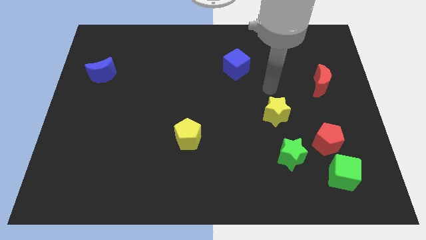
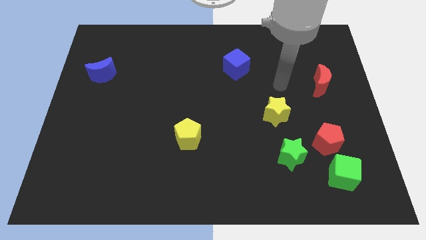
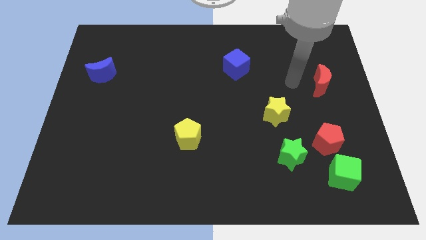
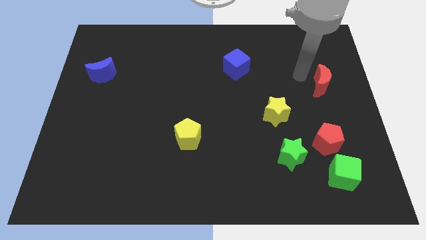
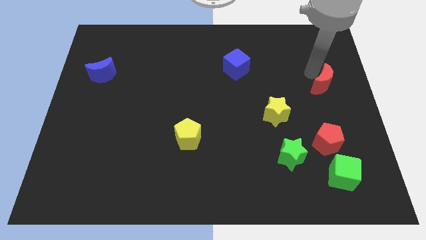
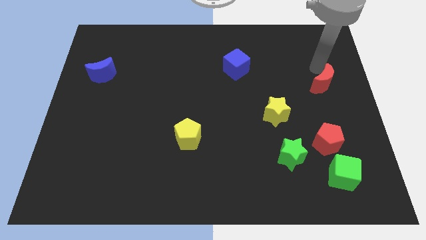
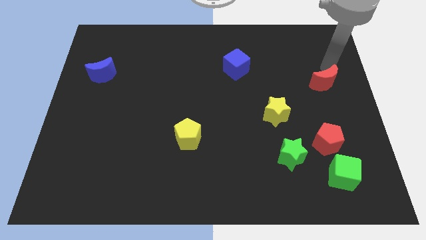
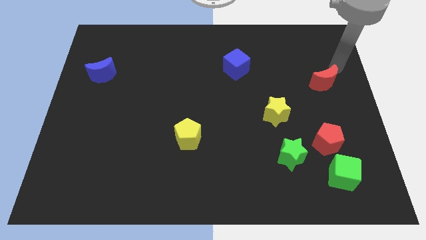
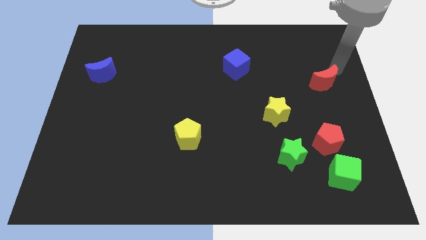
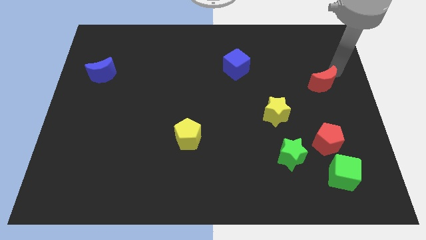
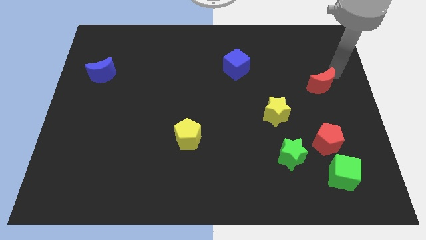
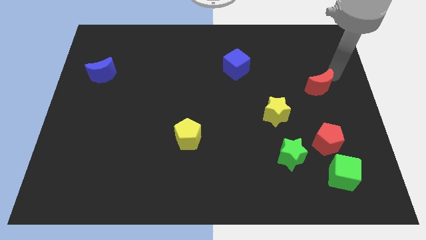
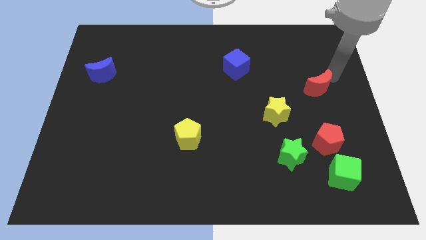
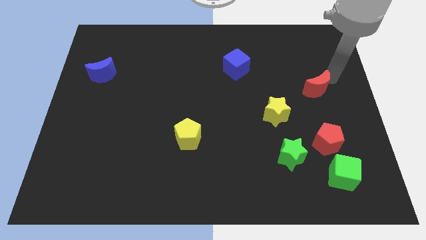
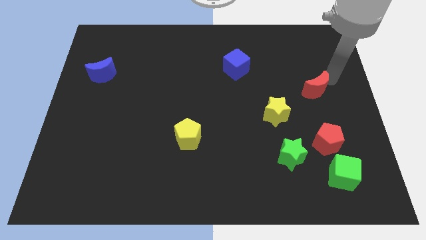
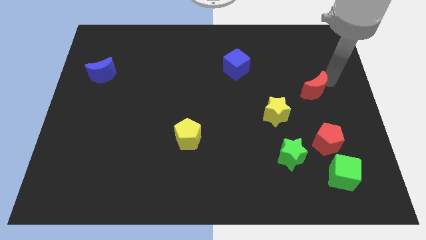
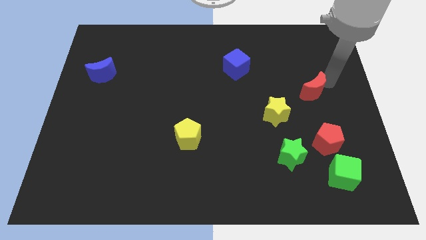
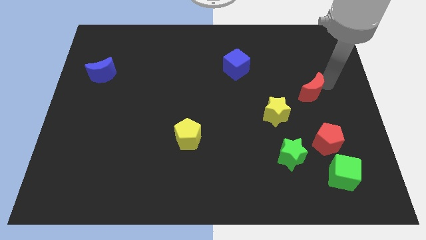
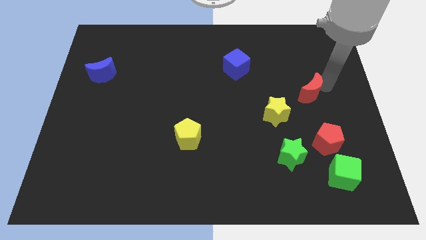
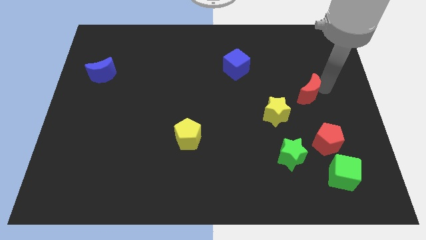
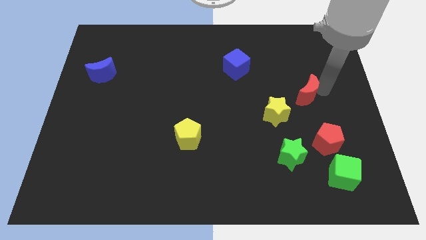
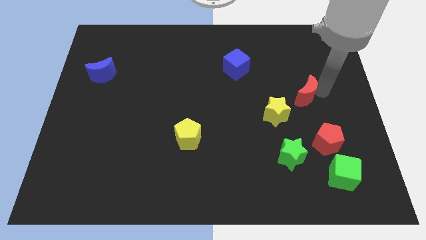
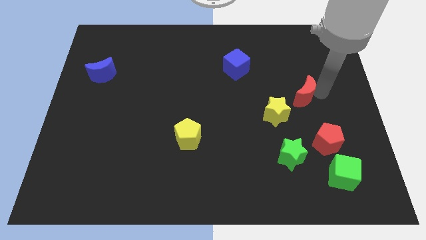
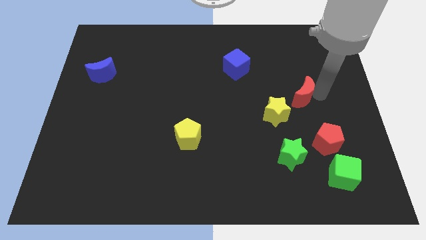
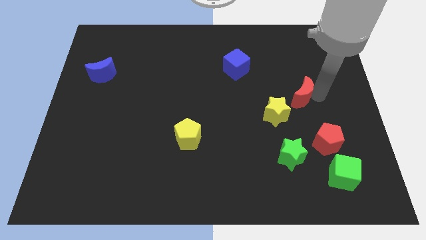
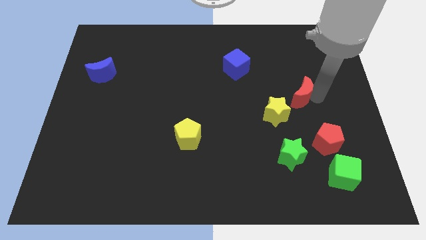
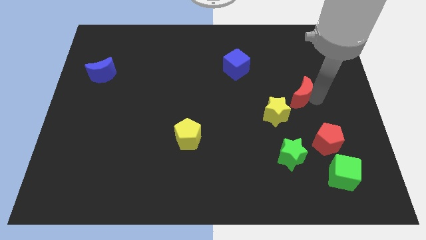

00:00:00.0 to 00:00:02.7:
slide the red moon diagonally downwards and left a little

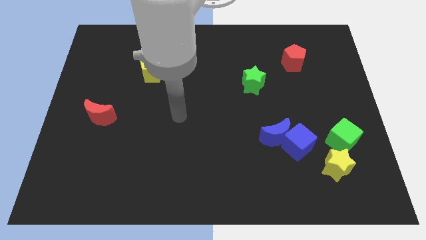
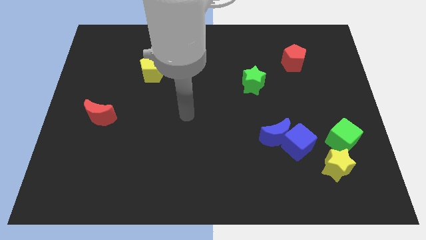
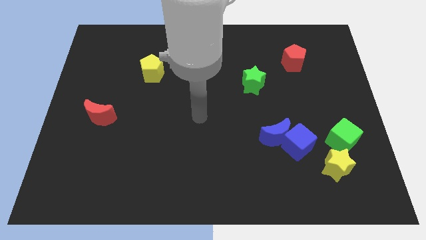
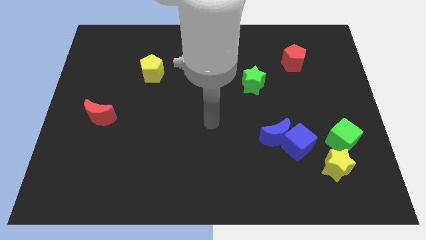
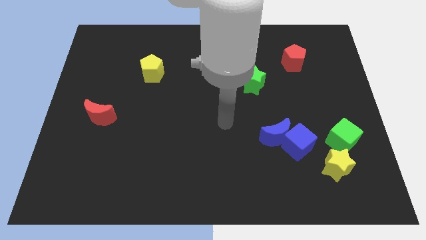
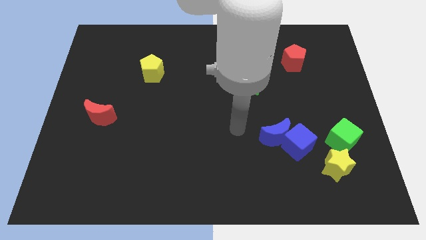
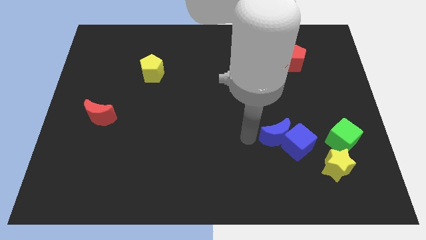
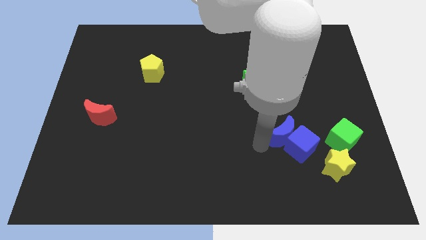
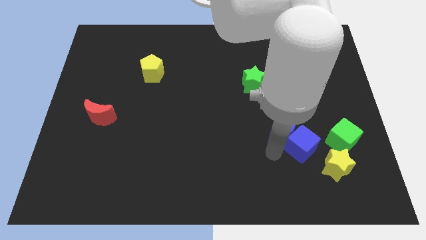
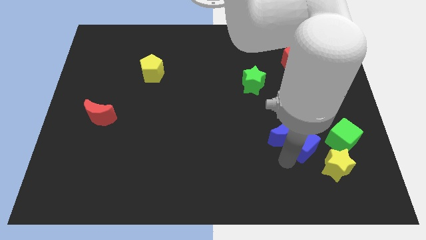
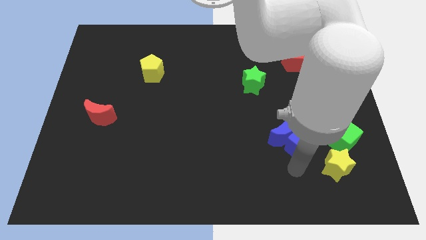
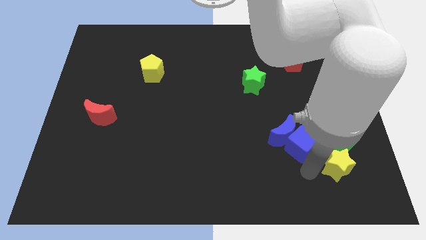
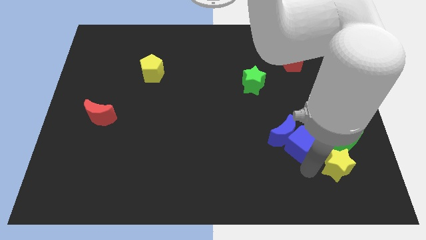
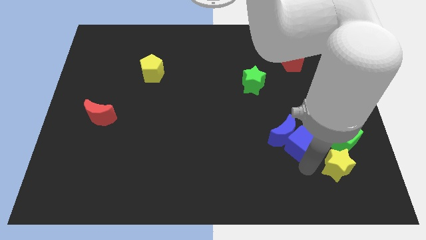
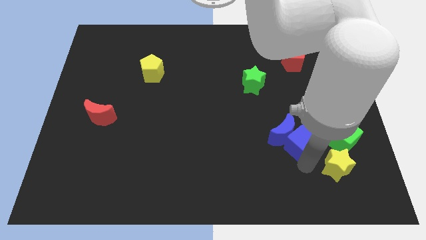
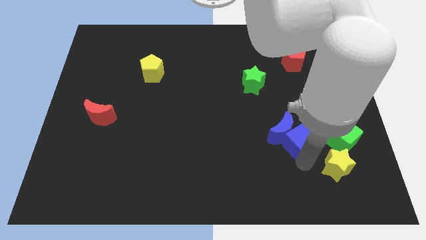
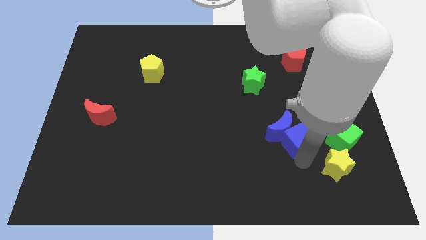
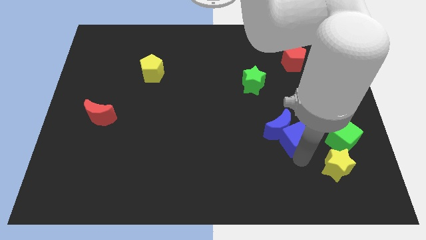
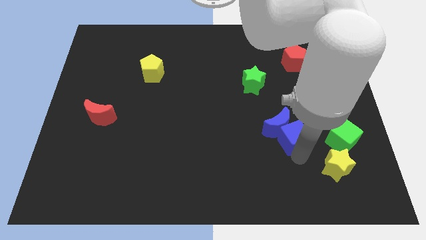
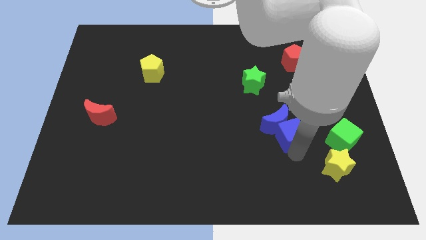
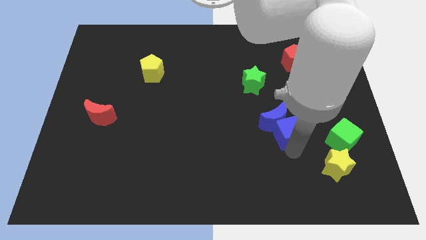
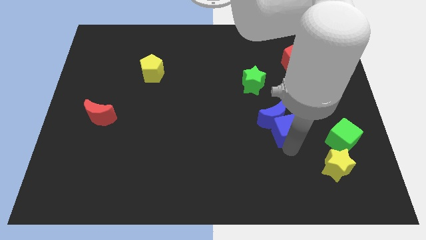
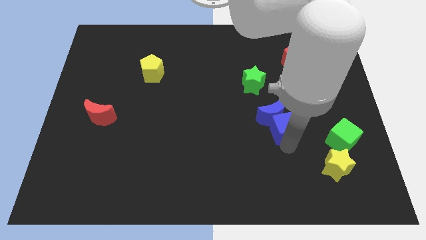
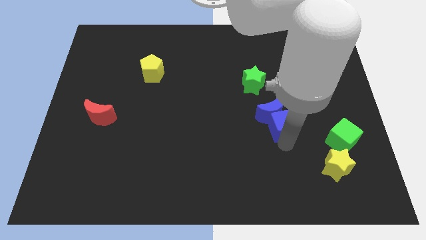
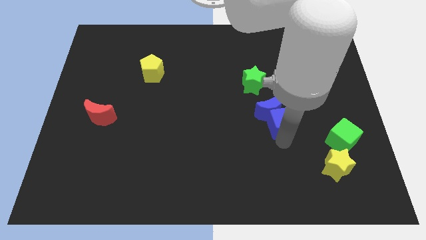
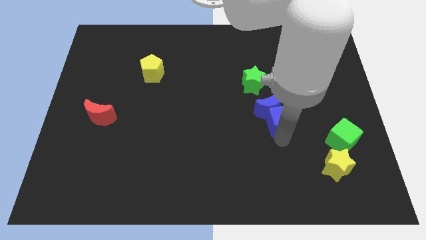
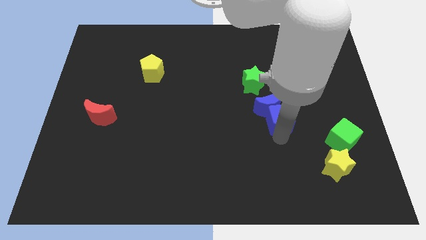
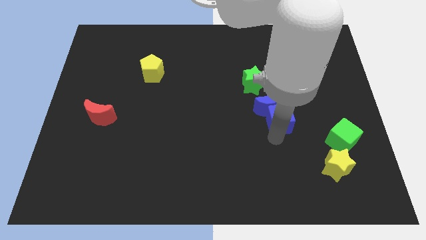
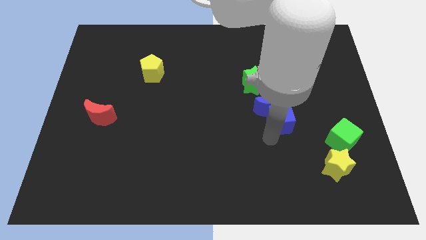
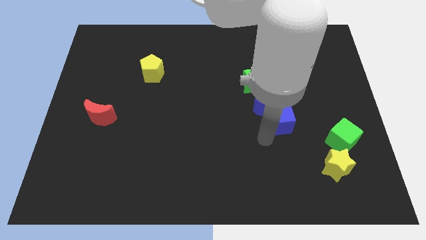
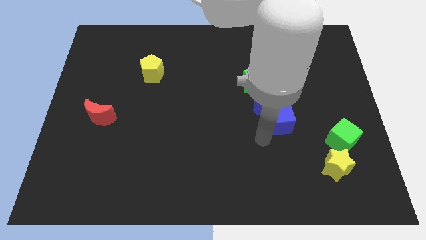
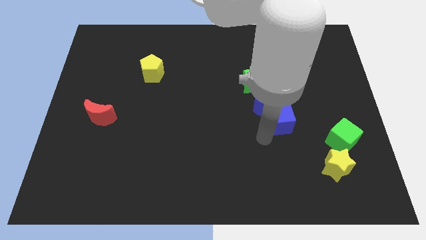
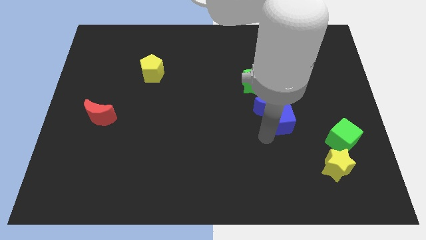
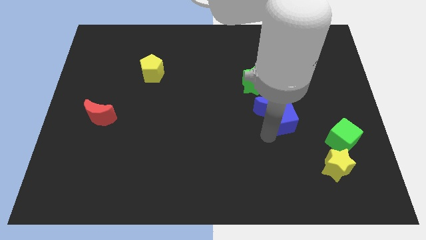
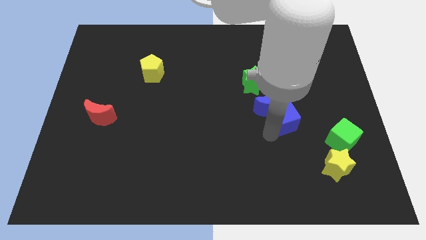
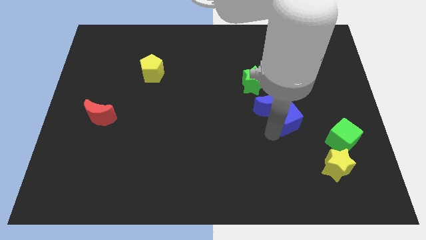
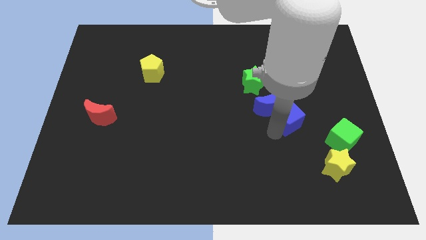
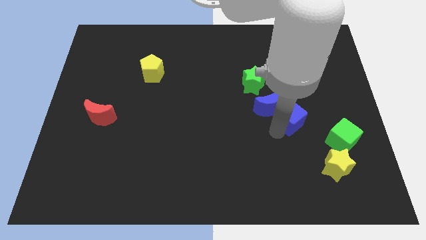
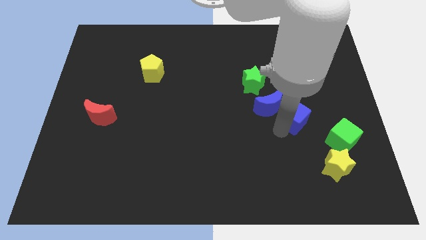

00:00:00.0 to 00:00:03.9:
move the blue cube a little bit upwards

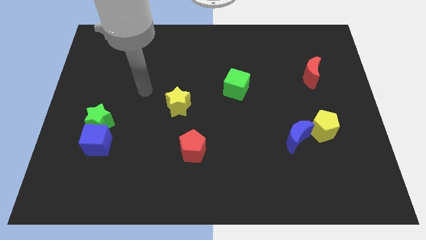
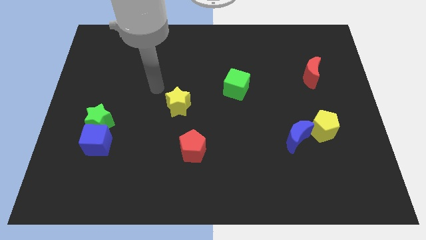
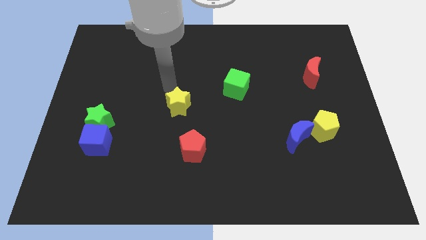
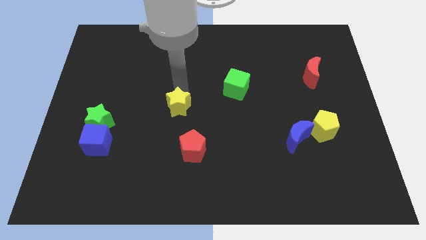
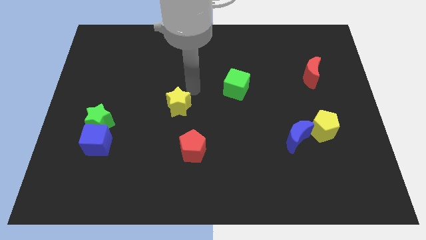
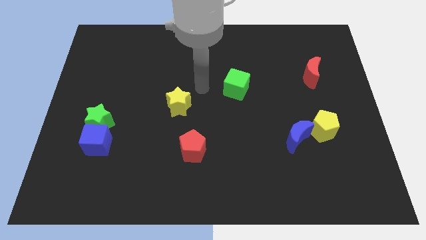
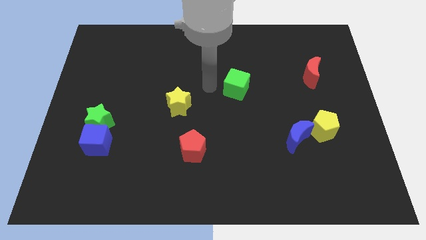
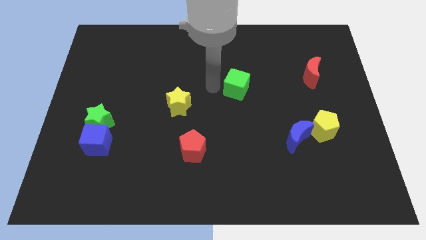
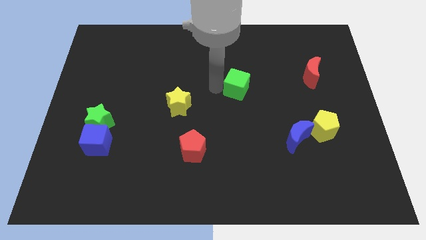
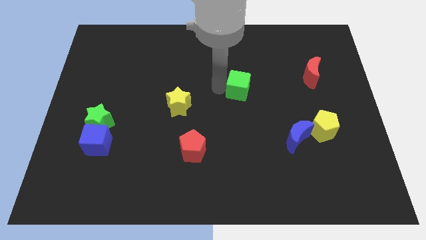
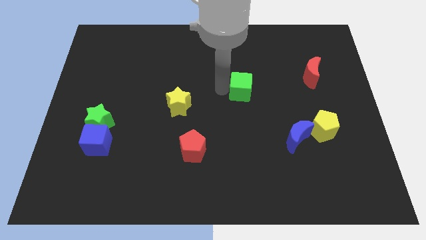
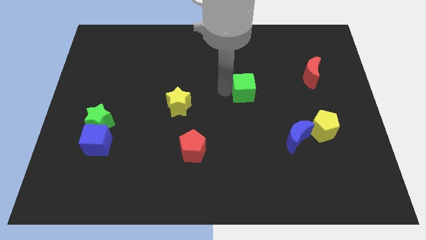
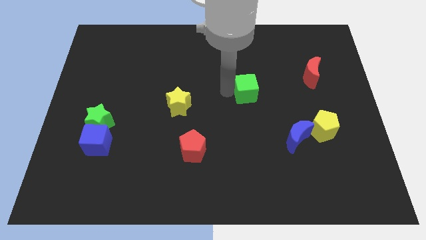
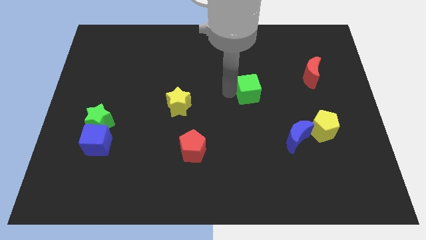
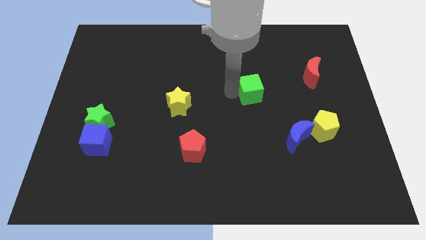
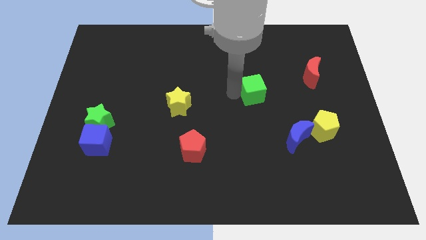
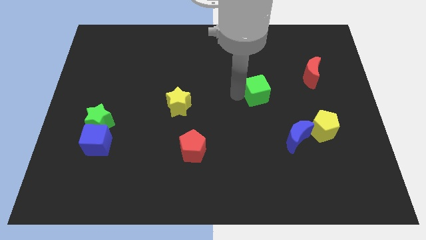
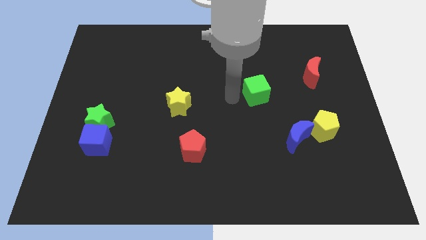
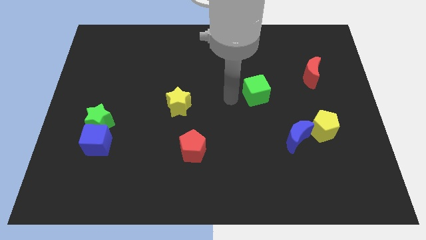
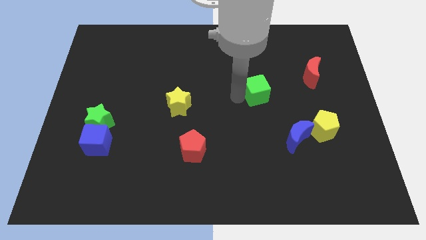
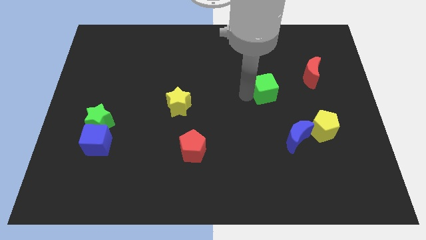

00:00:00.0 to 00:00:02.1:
push the green cube slightly right
